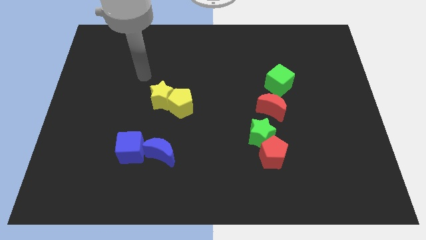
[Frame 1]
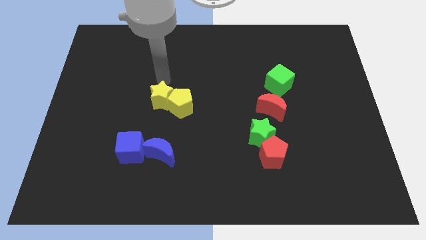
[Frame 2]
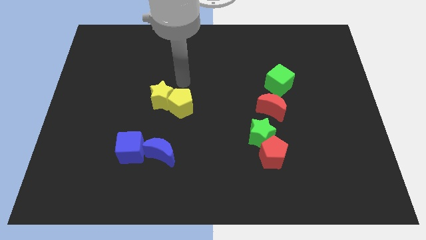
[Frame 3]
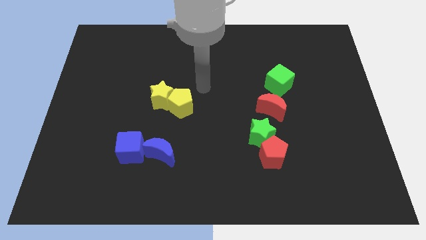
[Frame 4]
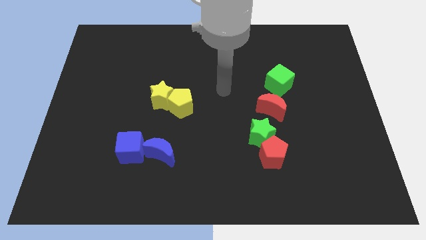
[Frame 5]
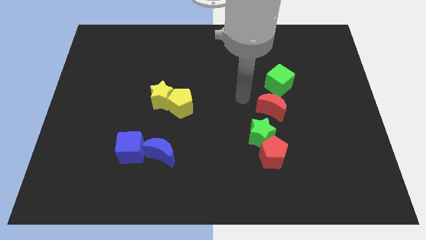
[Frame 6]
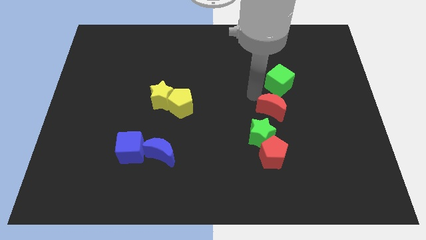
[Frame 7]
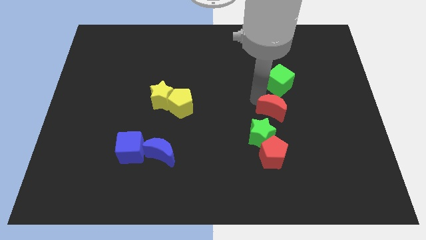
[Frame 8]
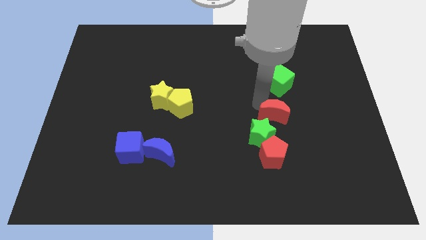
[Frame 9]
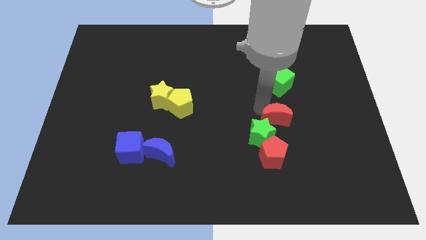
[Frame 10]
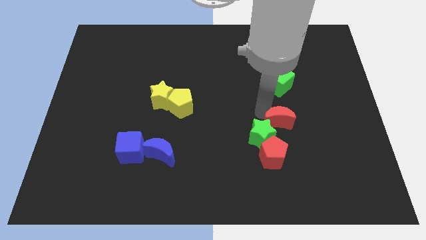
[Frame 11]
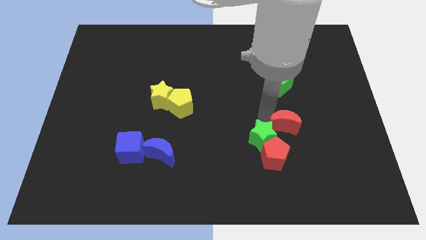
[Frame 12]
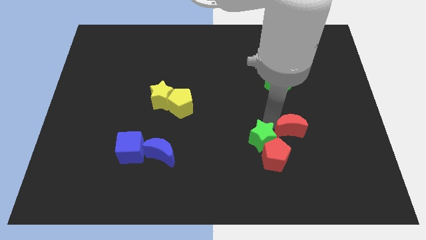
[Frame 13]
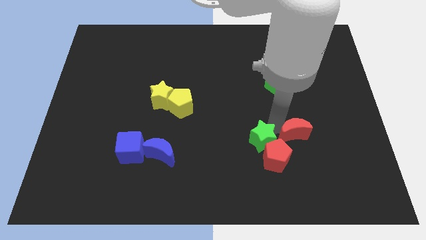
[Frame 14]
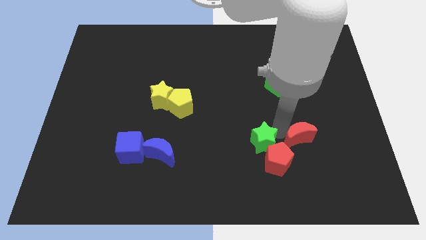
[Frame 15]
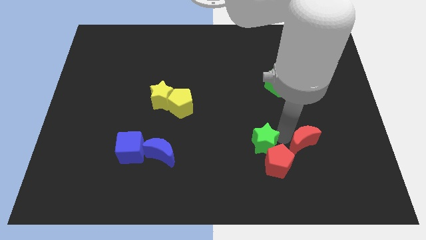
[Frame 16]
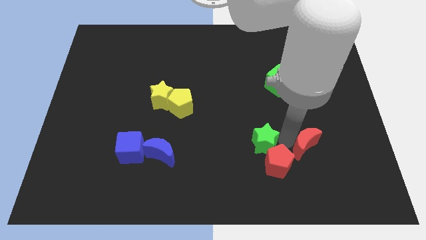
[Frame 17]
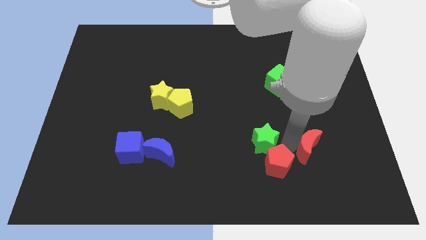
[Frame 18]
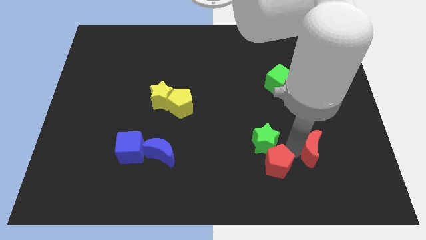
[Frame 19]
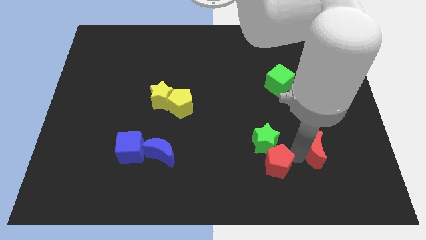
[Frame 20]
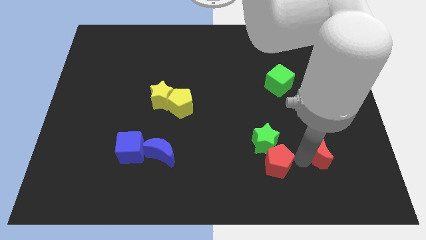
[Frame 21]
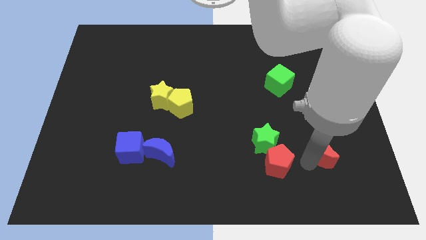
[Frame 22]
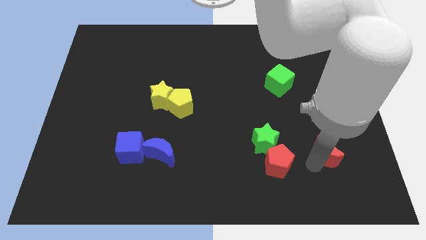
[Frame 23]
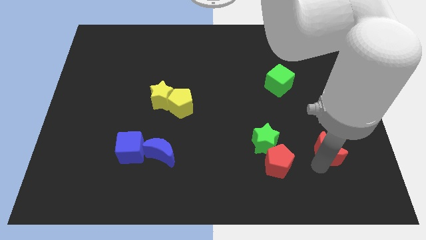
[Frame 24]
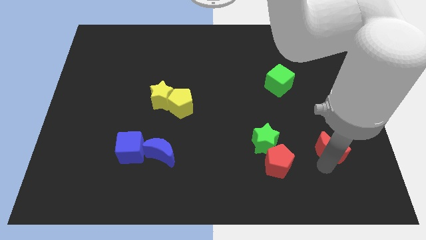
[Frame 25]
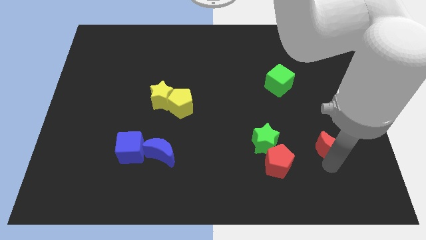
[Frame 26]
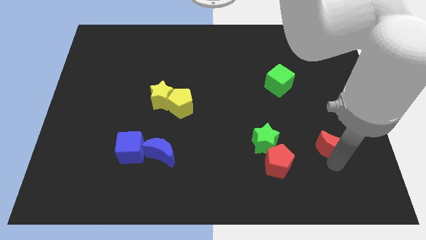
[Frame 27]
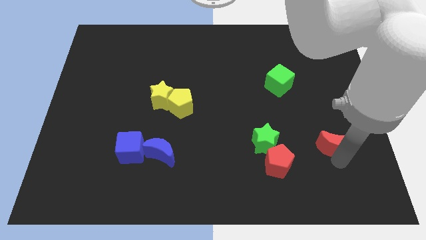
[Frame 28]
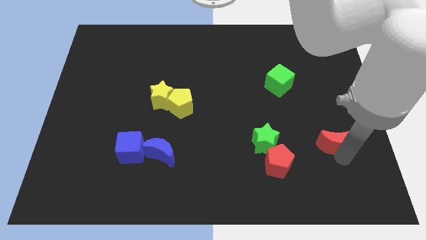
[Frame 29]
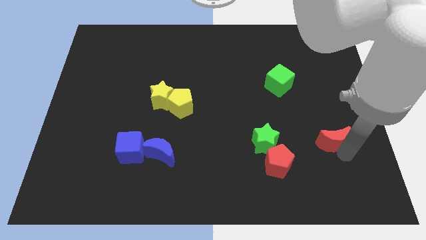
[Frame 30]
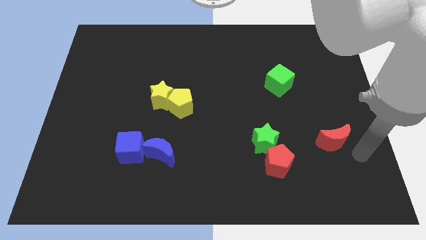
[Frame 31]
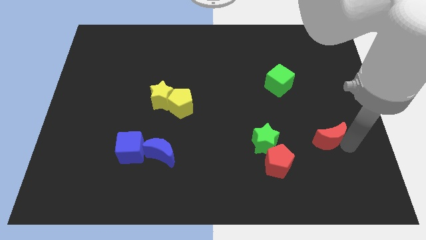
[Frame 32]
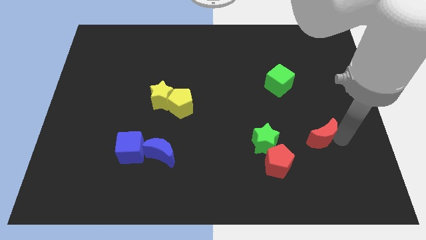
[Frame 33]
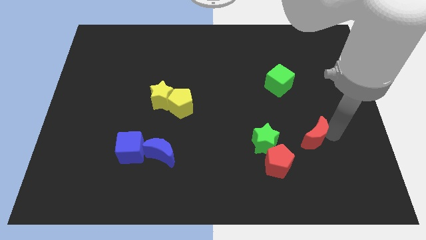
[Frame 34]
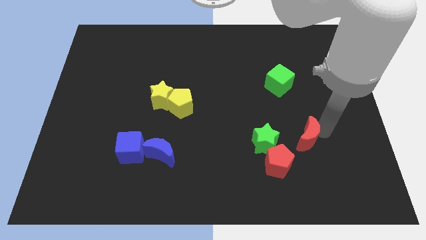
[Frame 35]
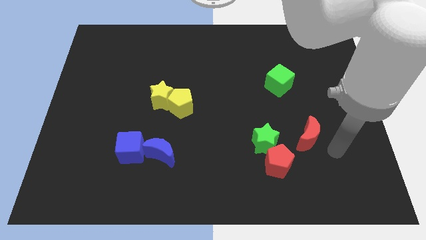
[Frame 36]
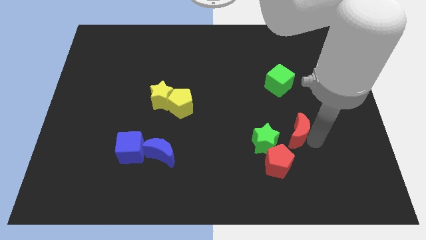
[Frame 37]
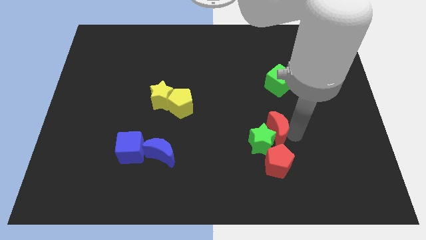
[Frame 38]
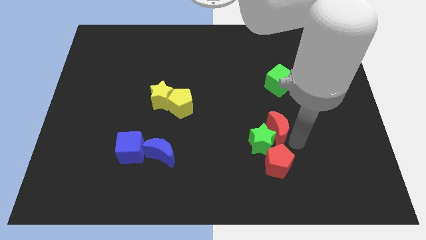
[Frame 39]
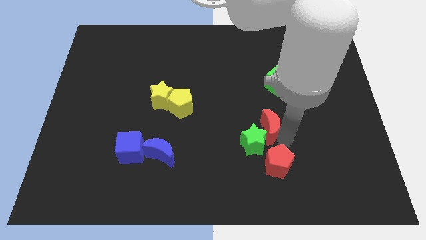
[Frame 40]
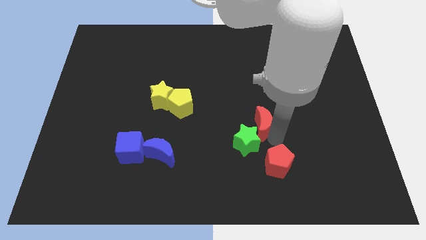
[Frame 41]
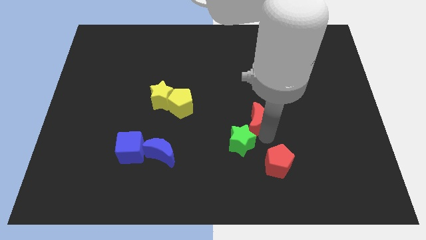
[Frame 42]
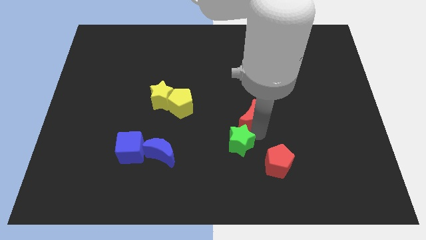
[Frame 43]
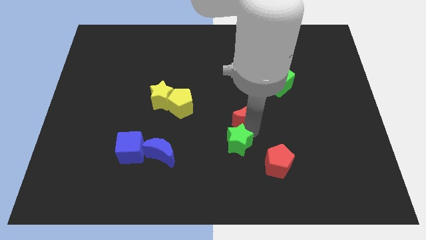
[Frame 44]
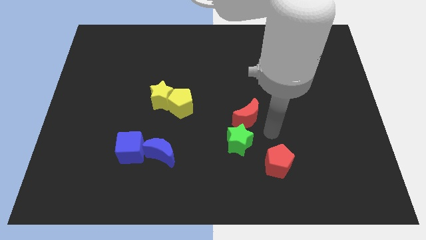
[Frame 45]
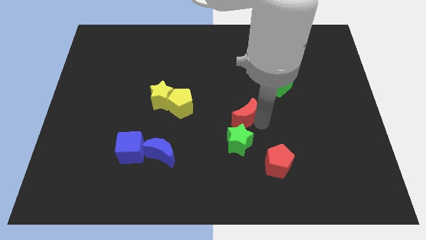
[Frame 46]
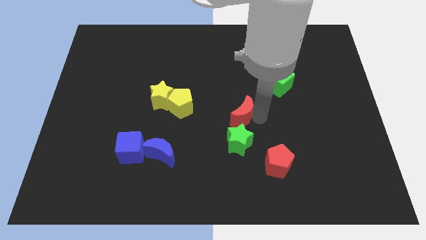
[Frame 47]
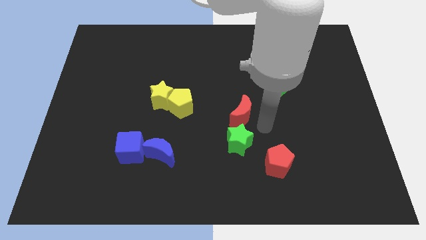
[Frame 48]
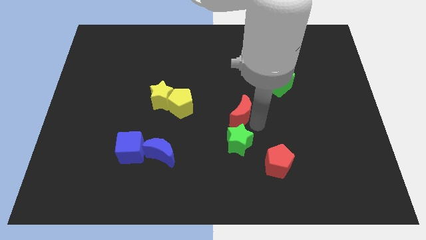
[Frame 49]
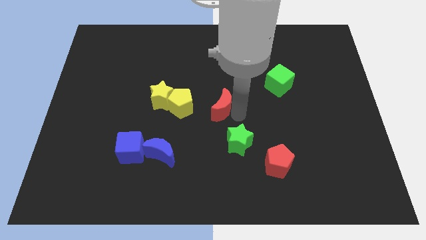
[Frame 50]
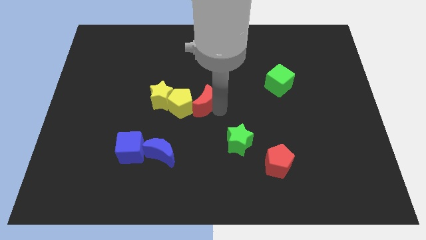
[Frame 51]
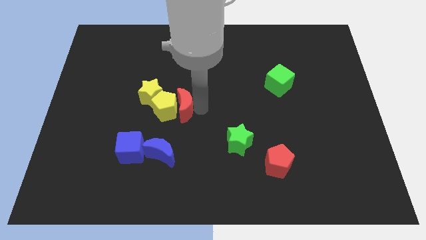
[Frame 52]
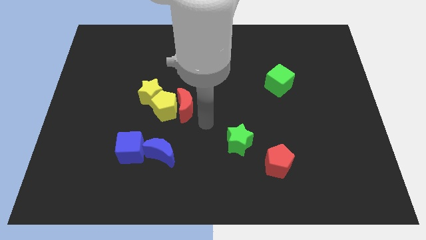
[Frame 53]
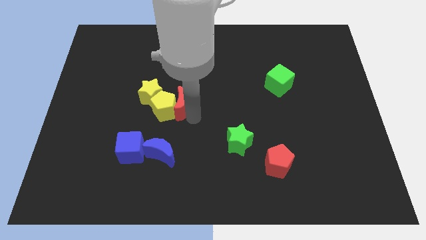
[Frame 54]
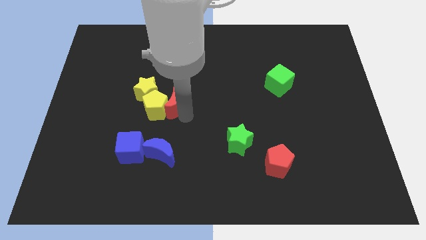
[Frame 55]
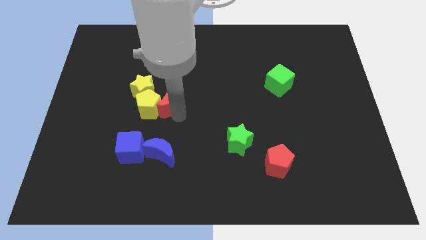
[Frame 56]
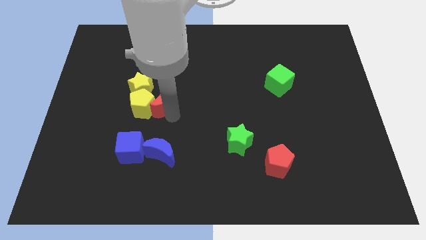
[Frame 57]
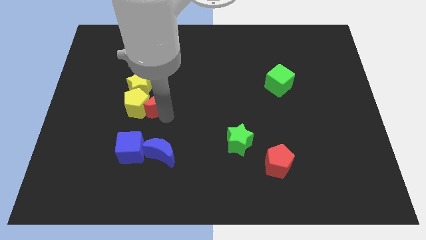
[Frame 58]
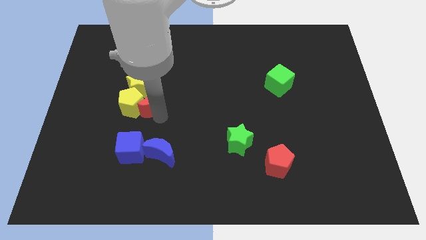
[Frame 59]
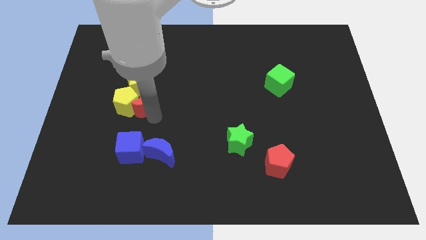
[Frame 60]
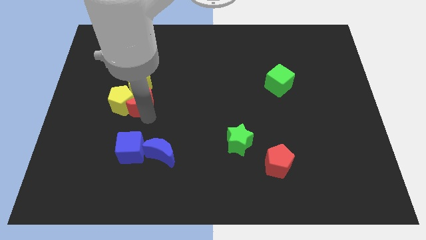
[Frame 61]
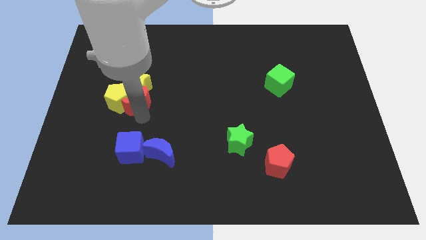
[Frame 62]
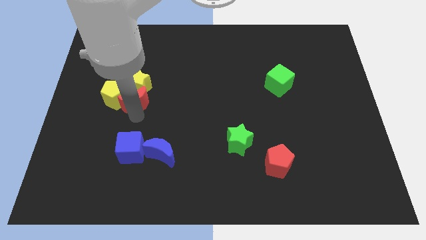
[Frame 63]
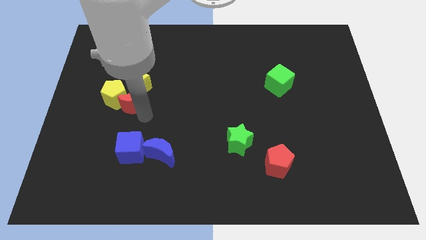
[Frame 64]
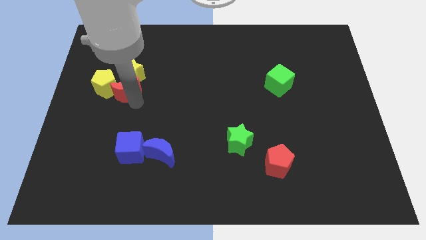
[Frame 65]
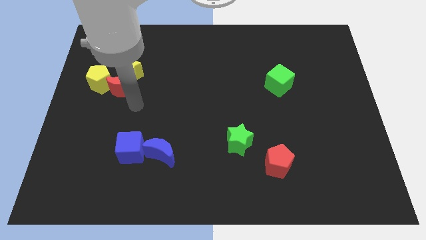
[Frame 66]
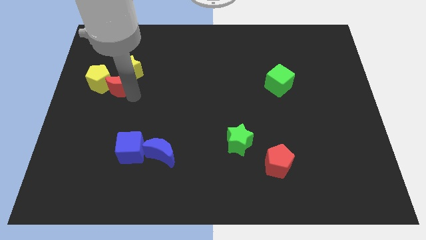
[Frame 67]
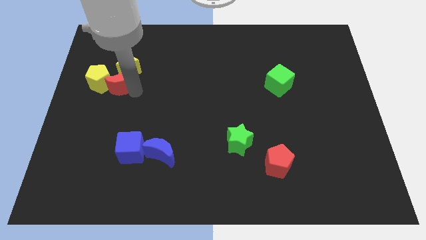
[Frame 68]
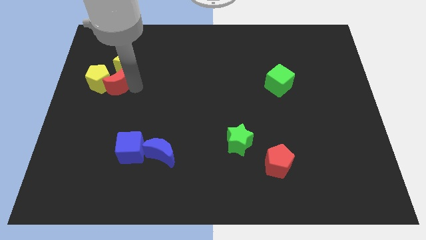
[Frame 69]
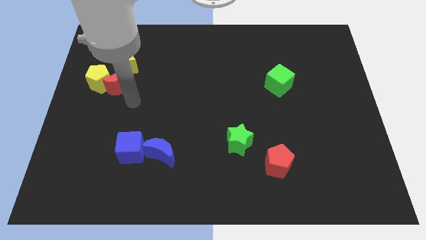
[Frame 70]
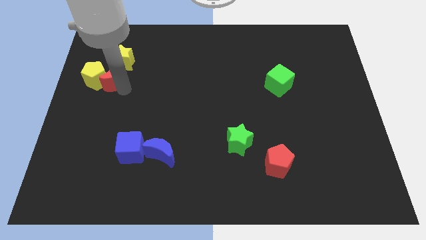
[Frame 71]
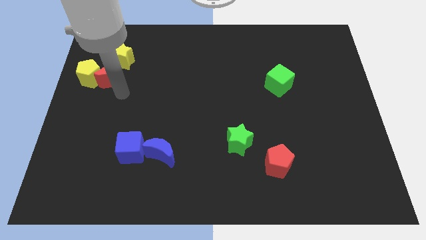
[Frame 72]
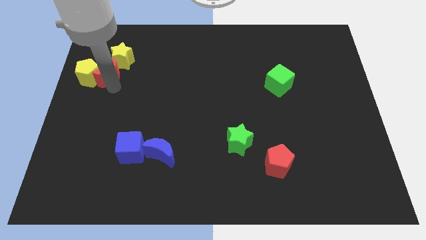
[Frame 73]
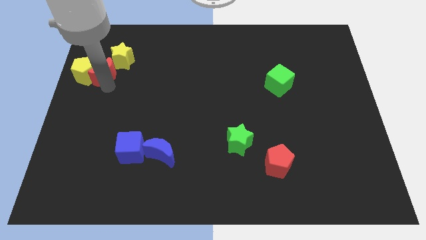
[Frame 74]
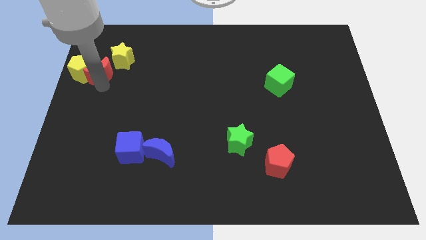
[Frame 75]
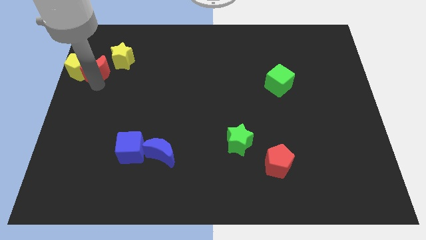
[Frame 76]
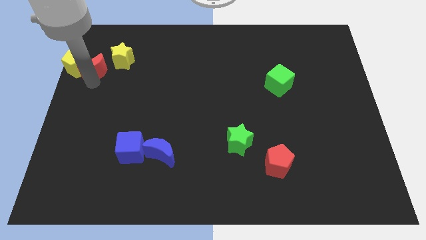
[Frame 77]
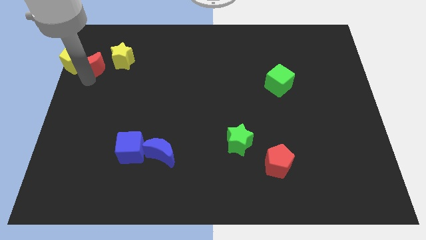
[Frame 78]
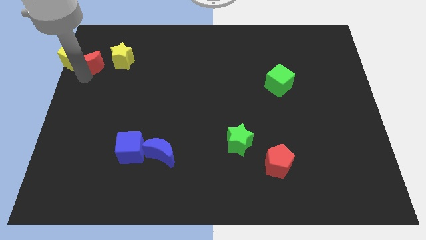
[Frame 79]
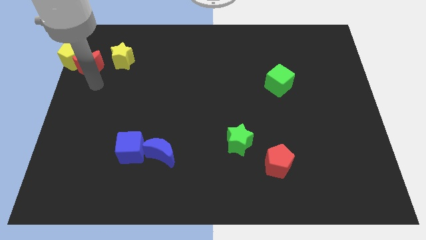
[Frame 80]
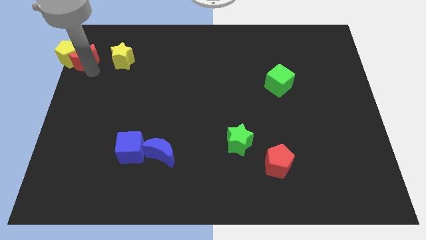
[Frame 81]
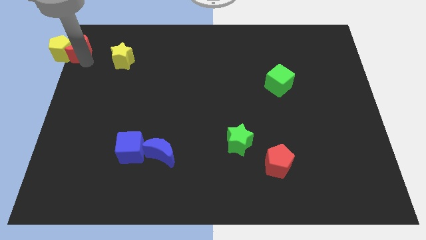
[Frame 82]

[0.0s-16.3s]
push the red moon to the top left
